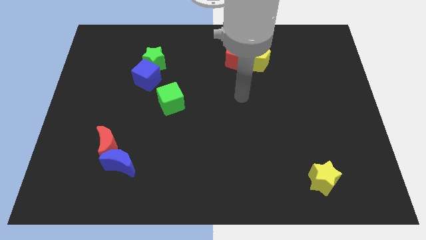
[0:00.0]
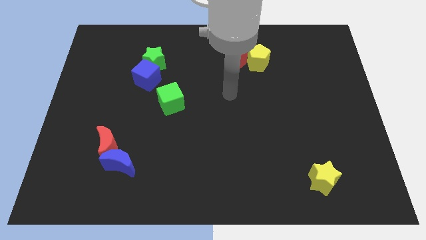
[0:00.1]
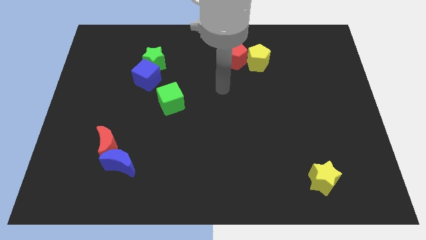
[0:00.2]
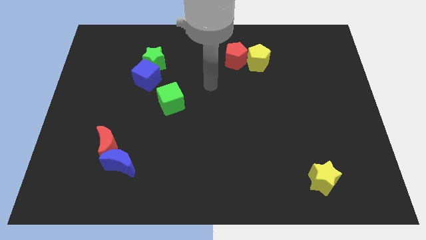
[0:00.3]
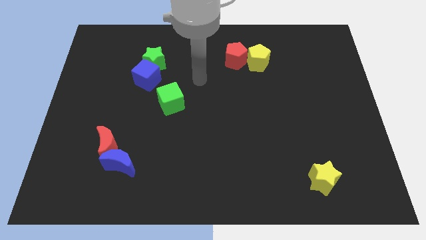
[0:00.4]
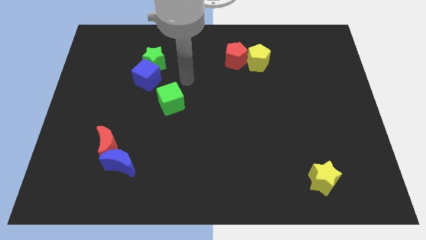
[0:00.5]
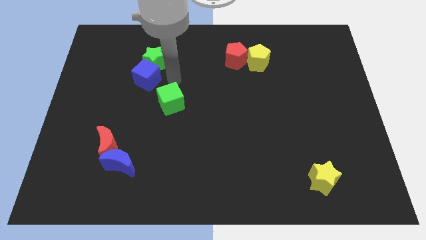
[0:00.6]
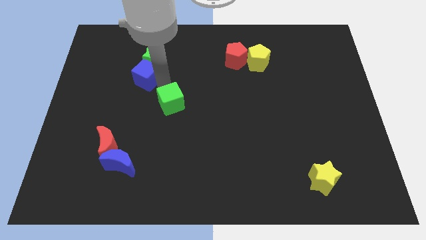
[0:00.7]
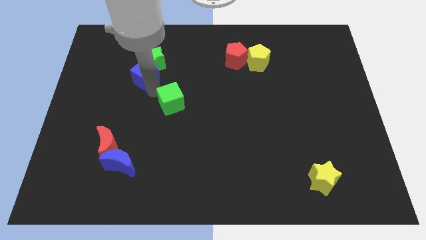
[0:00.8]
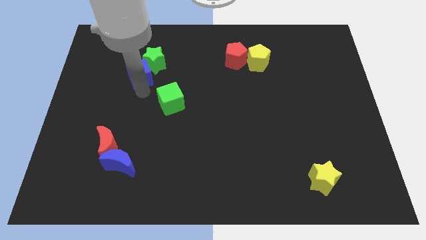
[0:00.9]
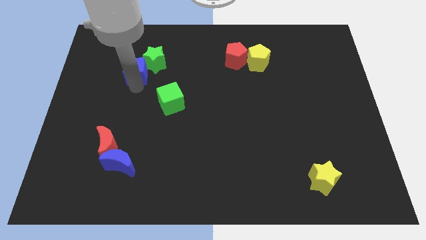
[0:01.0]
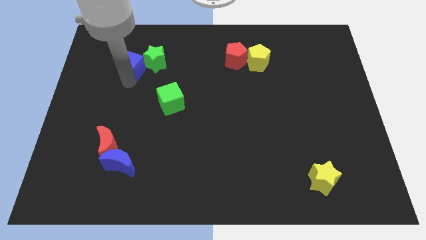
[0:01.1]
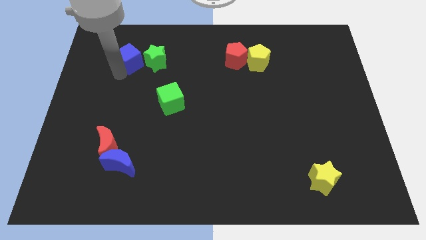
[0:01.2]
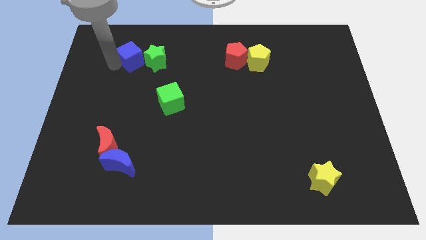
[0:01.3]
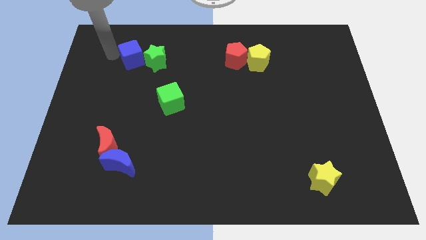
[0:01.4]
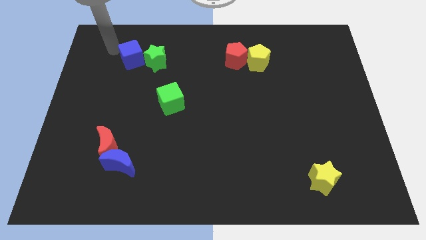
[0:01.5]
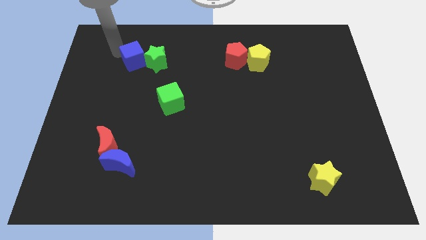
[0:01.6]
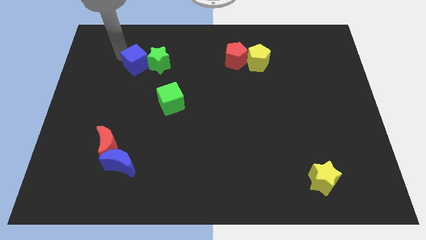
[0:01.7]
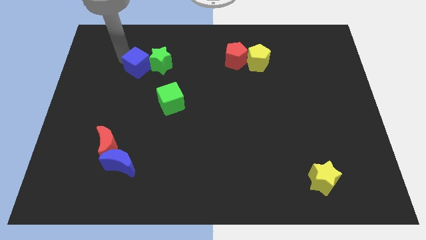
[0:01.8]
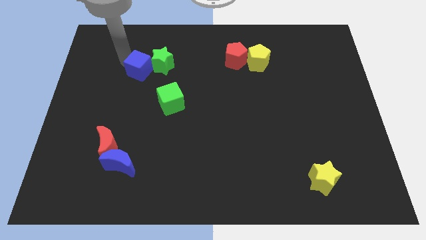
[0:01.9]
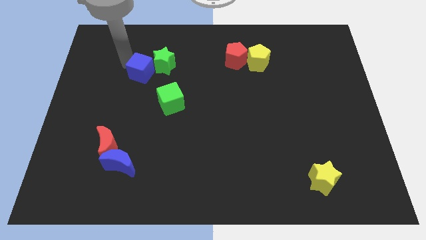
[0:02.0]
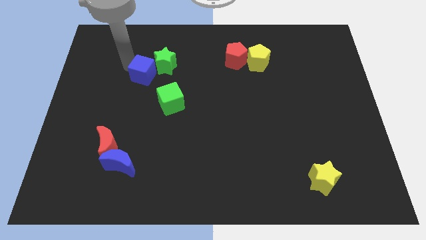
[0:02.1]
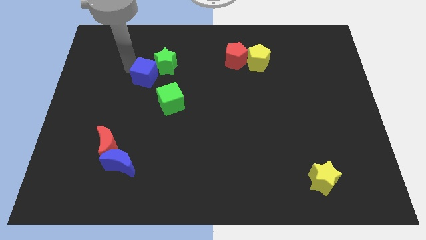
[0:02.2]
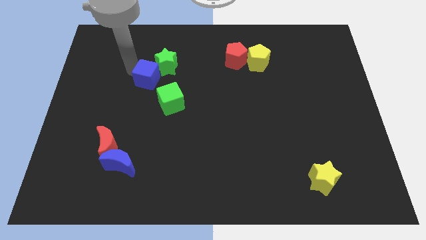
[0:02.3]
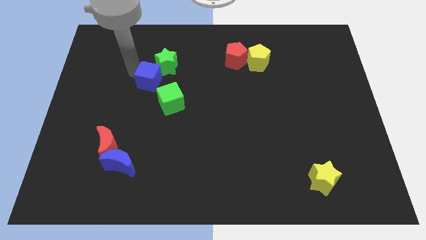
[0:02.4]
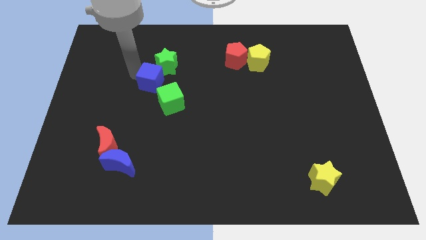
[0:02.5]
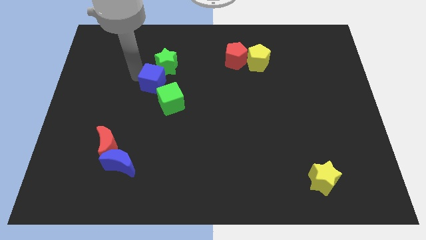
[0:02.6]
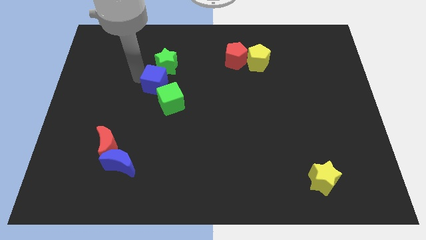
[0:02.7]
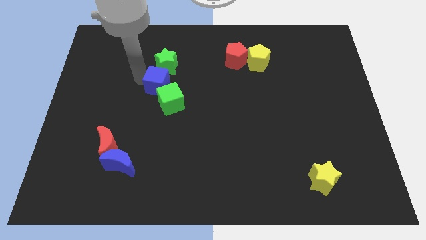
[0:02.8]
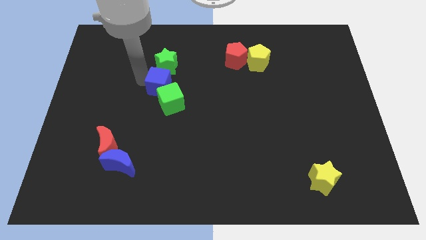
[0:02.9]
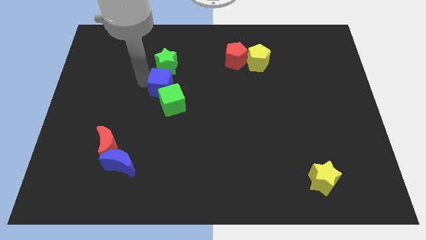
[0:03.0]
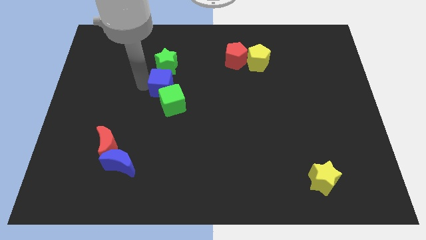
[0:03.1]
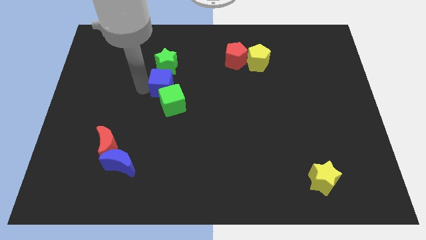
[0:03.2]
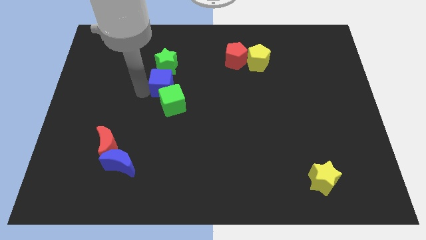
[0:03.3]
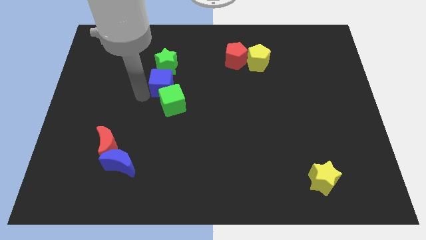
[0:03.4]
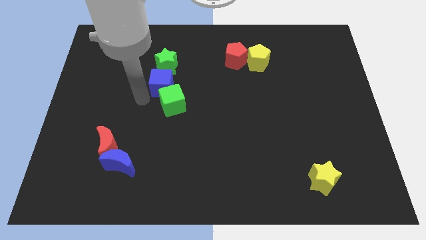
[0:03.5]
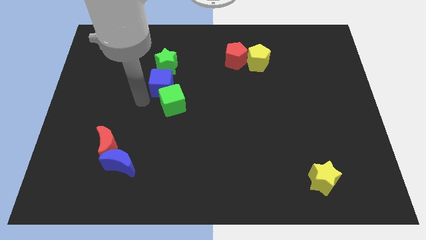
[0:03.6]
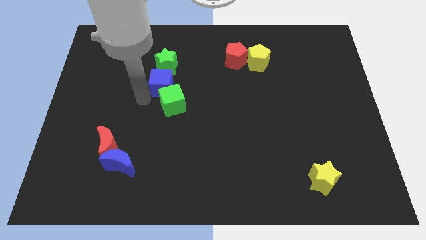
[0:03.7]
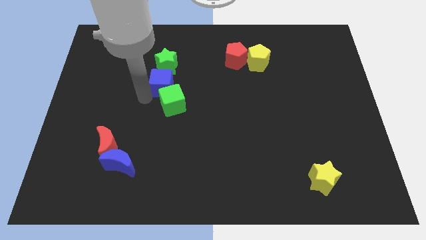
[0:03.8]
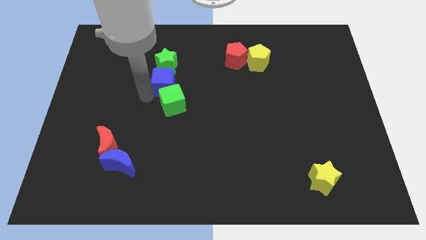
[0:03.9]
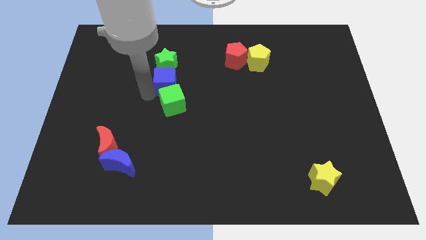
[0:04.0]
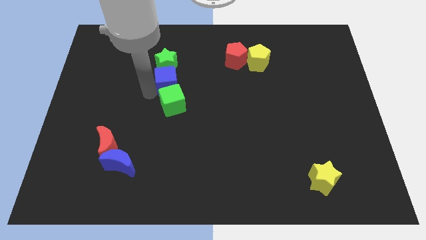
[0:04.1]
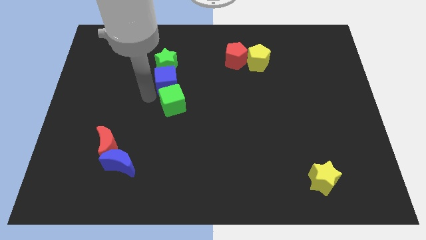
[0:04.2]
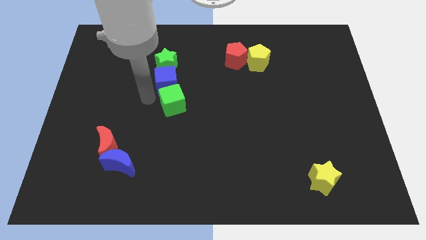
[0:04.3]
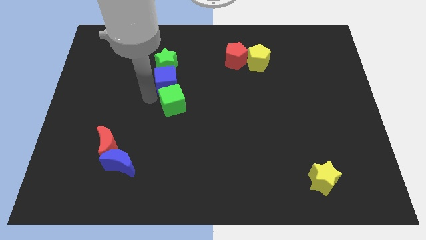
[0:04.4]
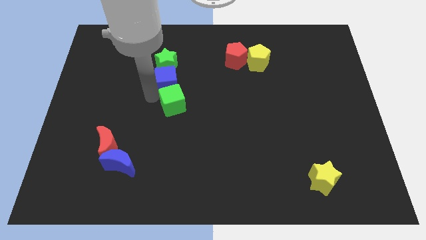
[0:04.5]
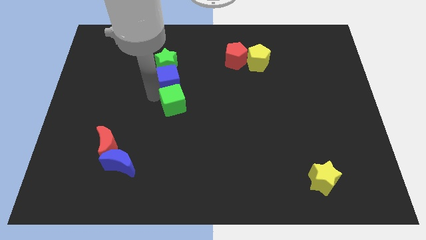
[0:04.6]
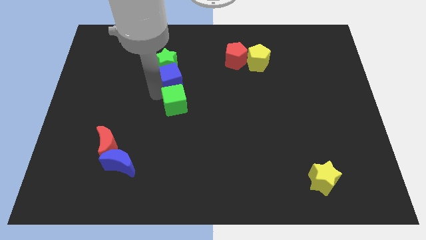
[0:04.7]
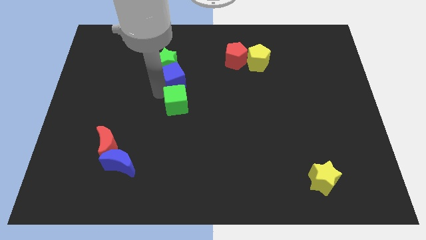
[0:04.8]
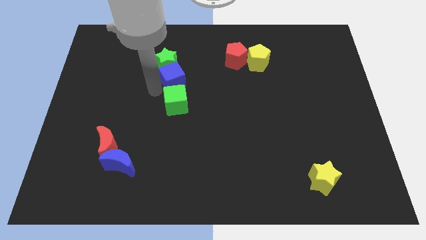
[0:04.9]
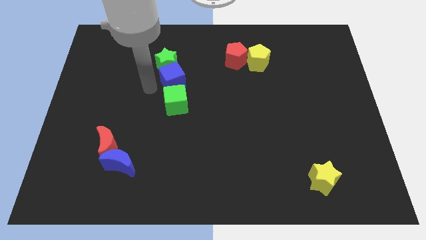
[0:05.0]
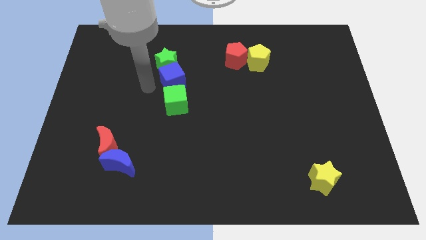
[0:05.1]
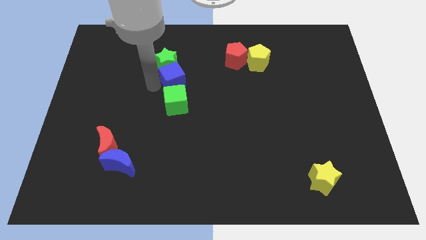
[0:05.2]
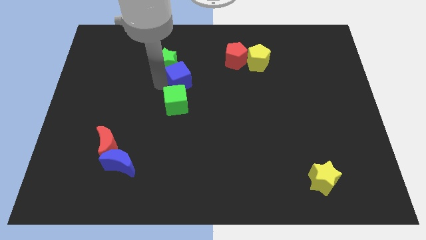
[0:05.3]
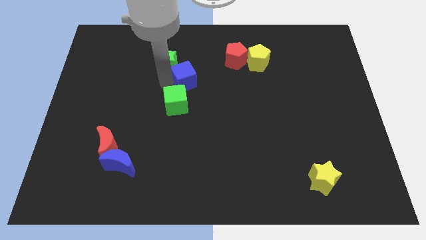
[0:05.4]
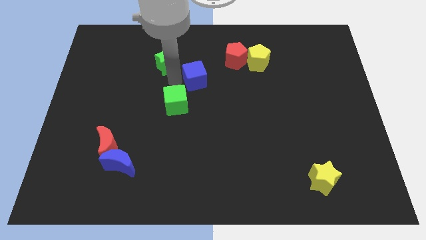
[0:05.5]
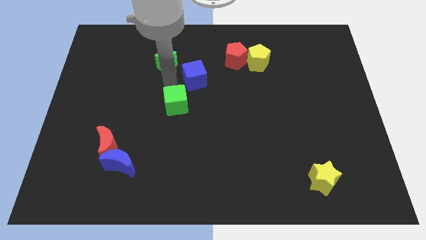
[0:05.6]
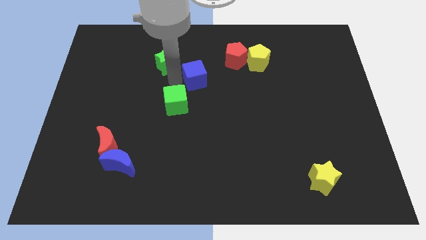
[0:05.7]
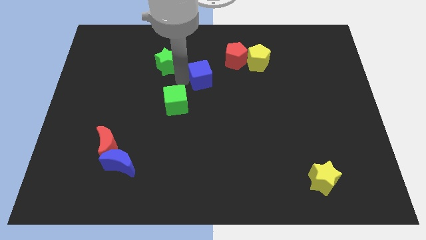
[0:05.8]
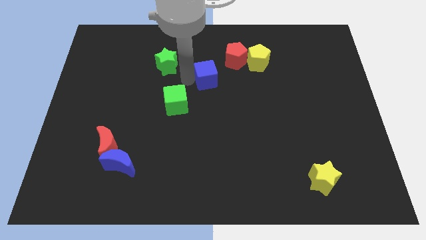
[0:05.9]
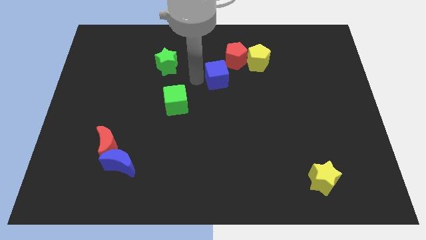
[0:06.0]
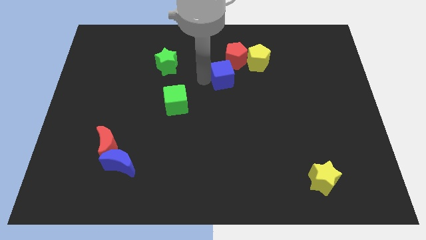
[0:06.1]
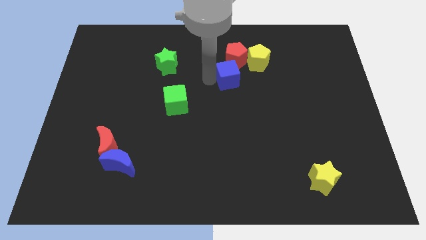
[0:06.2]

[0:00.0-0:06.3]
slide the blue cube right

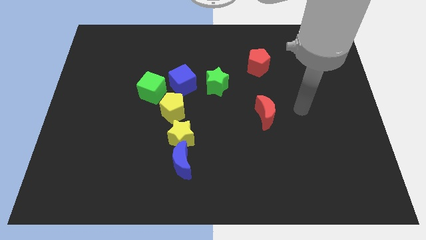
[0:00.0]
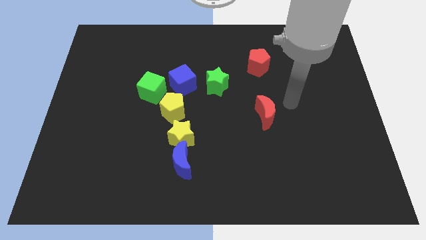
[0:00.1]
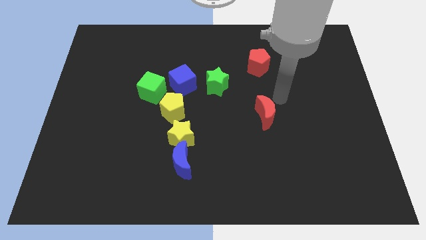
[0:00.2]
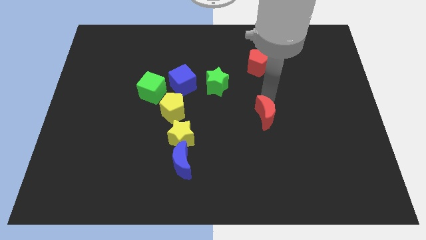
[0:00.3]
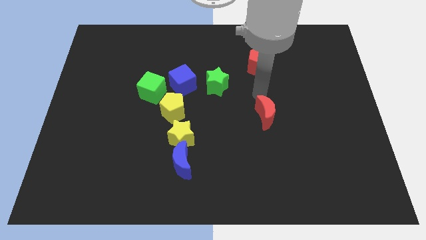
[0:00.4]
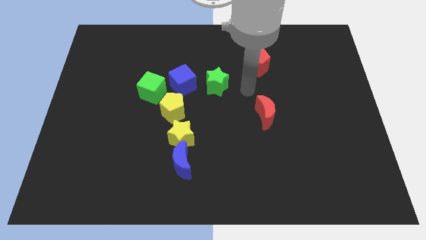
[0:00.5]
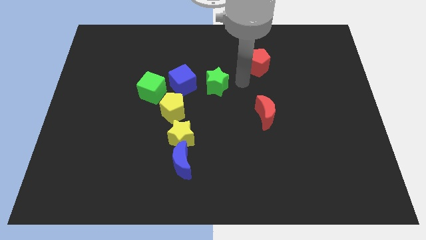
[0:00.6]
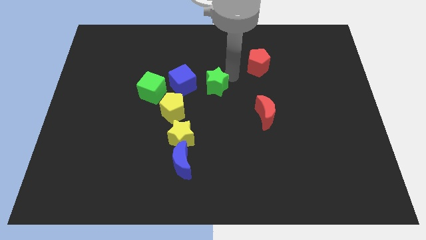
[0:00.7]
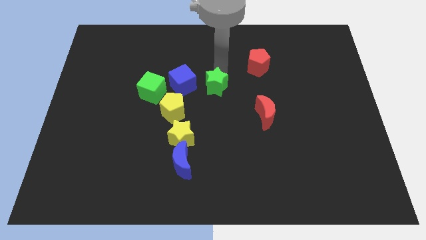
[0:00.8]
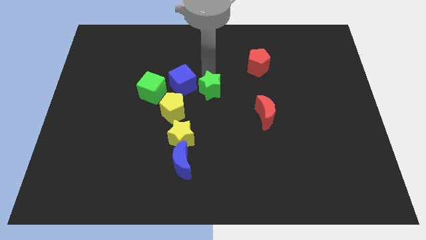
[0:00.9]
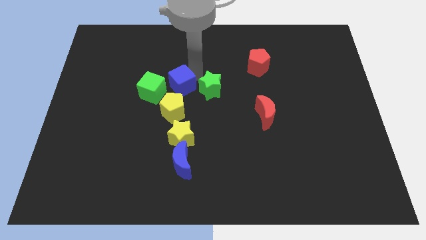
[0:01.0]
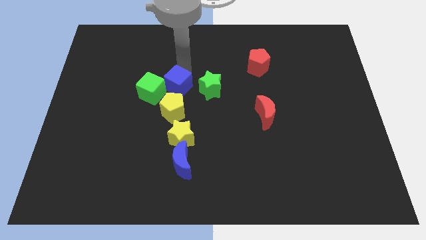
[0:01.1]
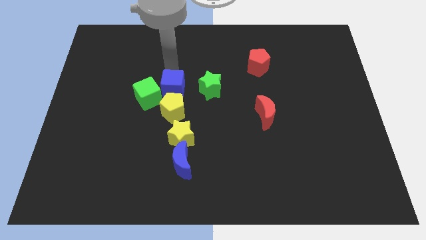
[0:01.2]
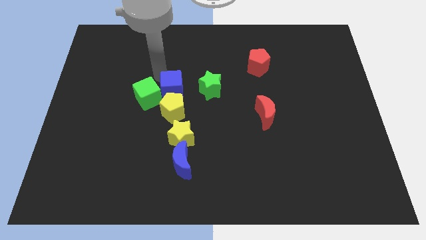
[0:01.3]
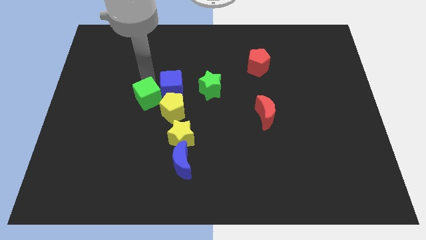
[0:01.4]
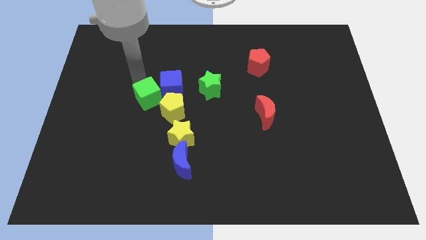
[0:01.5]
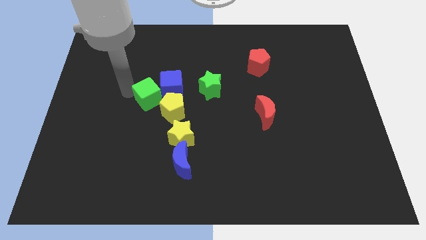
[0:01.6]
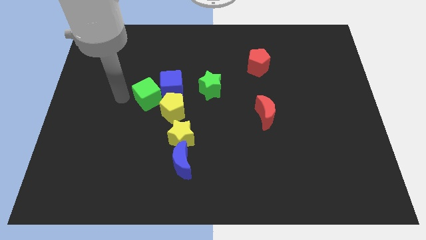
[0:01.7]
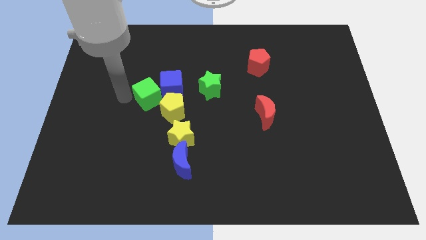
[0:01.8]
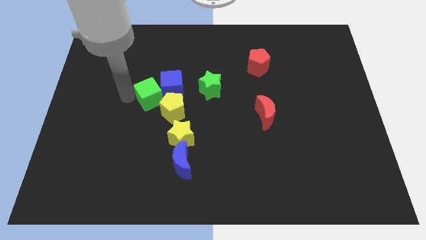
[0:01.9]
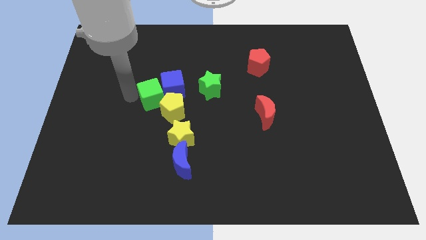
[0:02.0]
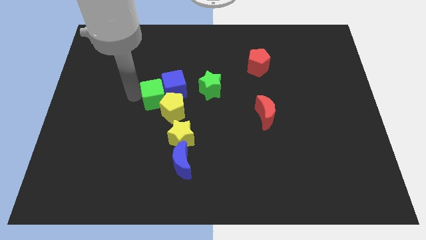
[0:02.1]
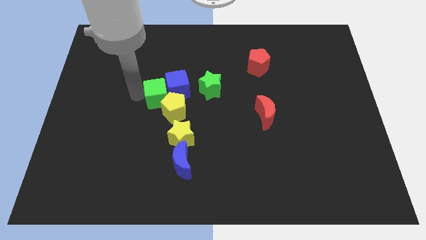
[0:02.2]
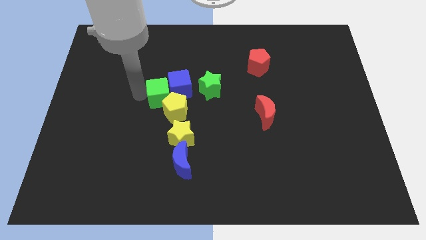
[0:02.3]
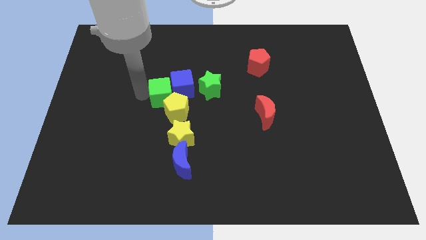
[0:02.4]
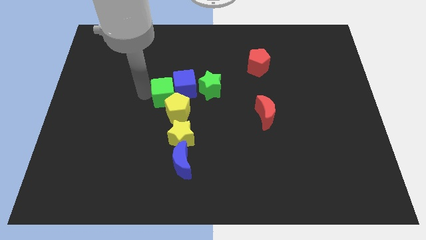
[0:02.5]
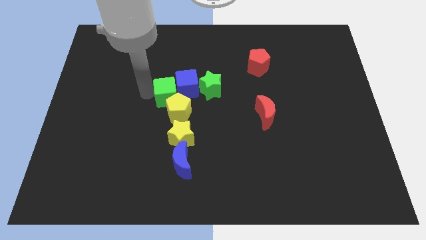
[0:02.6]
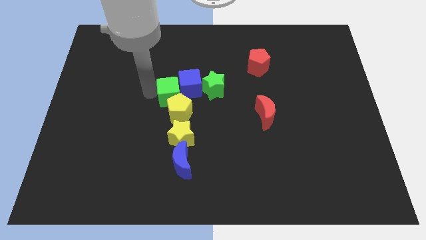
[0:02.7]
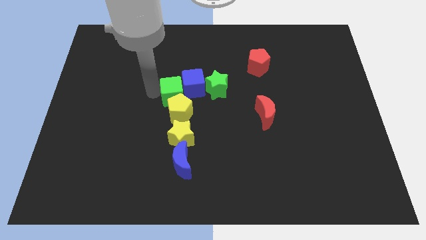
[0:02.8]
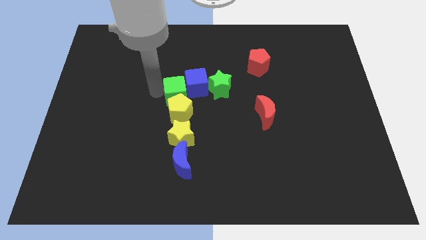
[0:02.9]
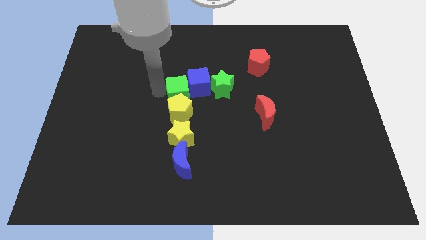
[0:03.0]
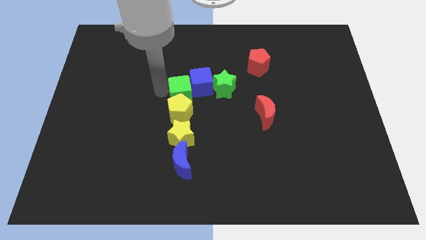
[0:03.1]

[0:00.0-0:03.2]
slide the green cube a little to the right
